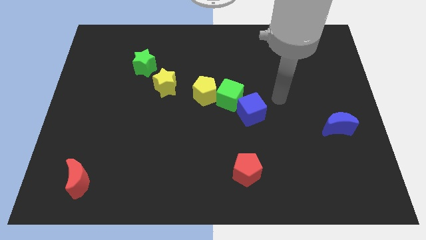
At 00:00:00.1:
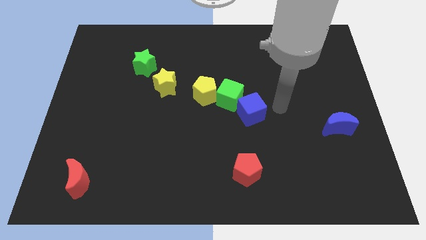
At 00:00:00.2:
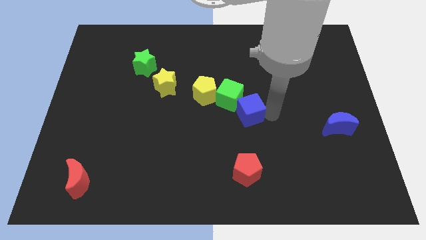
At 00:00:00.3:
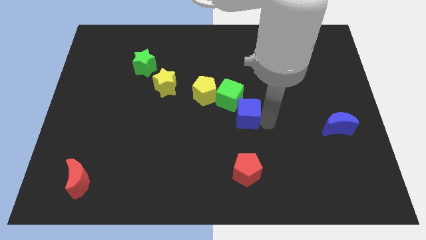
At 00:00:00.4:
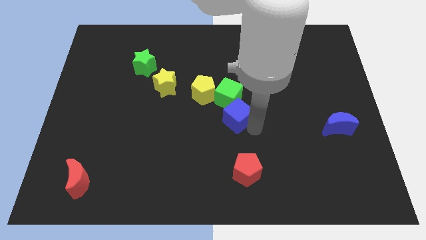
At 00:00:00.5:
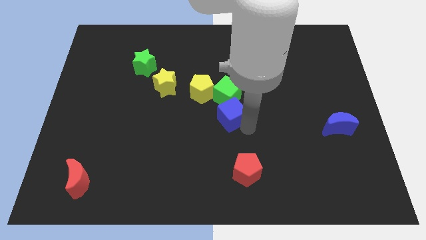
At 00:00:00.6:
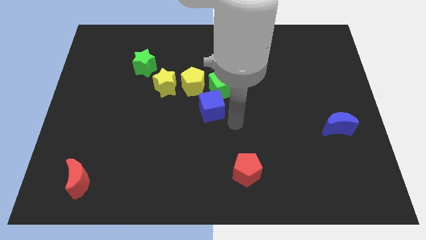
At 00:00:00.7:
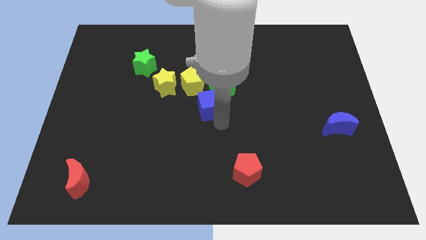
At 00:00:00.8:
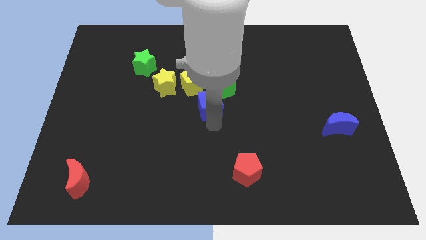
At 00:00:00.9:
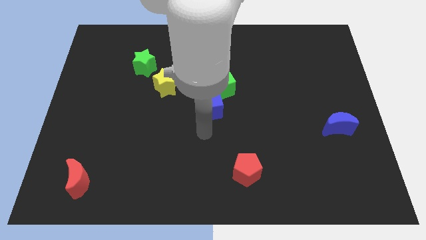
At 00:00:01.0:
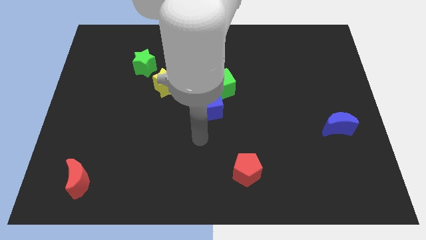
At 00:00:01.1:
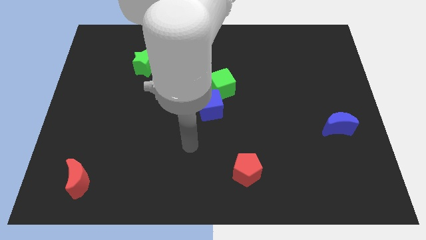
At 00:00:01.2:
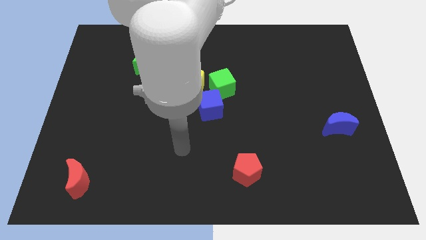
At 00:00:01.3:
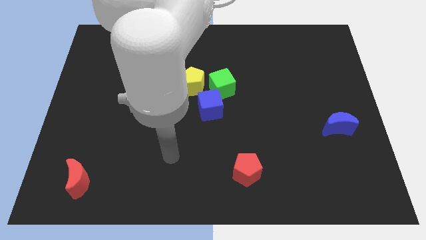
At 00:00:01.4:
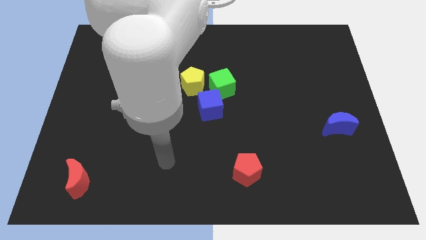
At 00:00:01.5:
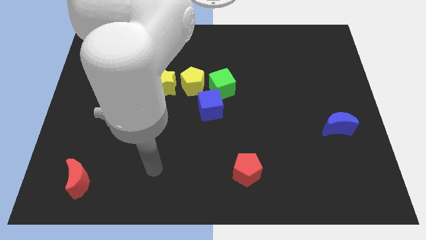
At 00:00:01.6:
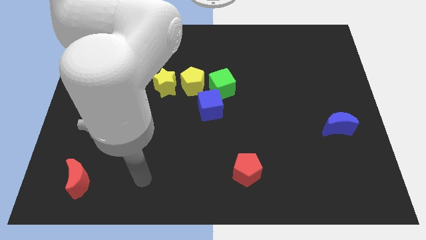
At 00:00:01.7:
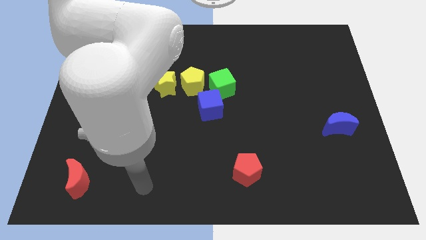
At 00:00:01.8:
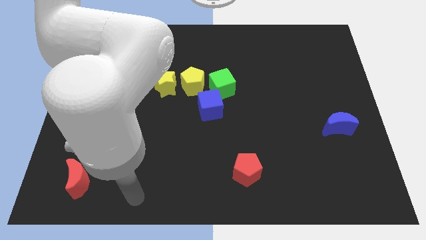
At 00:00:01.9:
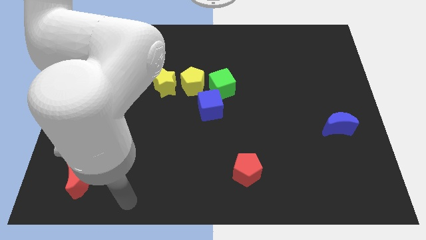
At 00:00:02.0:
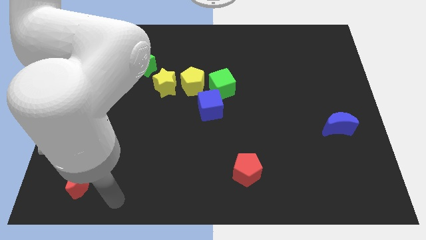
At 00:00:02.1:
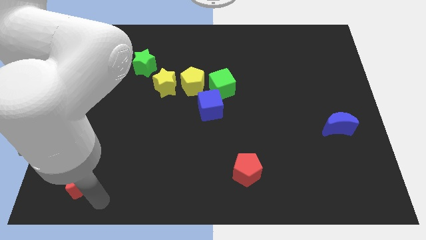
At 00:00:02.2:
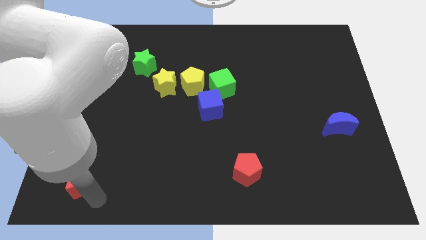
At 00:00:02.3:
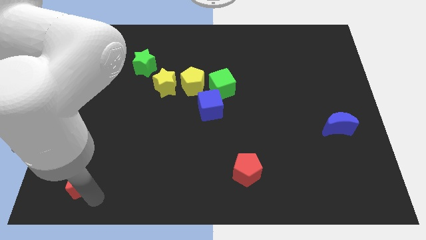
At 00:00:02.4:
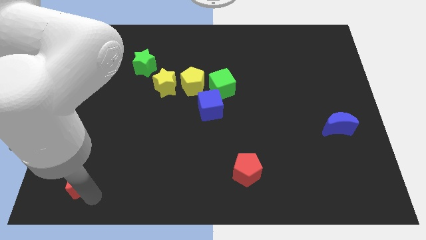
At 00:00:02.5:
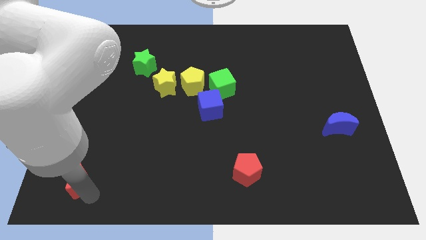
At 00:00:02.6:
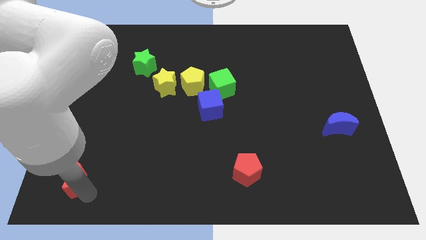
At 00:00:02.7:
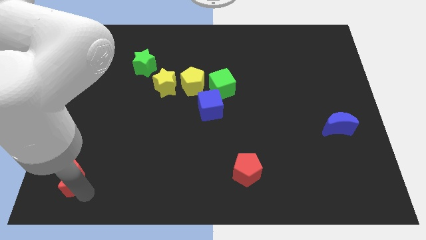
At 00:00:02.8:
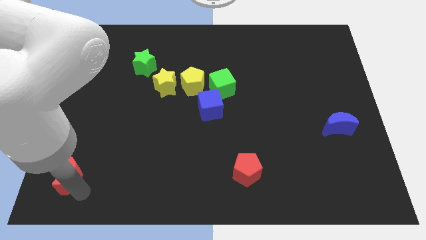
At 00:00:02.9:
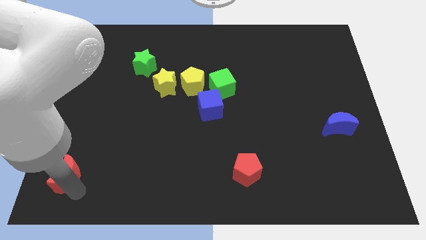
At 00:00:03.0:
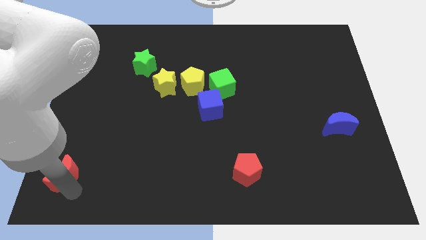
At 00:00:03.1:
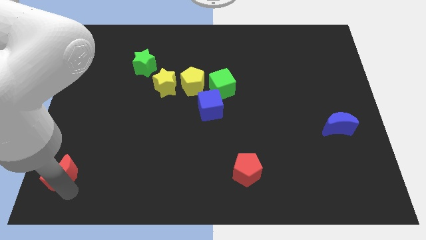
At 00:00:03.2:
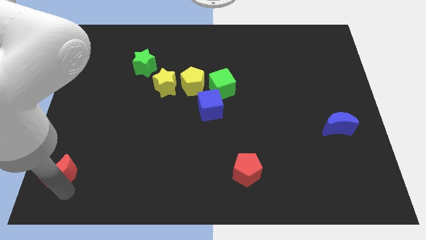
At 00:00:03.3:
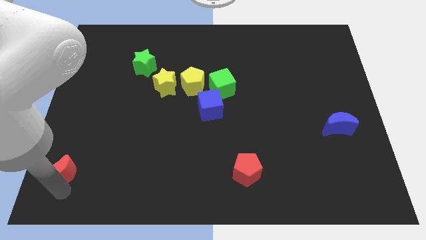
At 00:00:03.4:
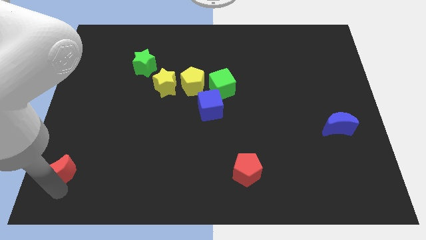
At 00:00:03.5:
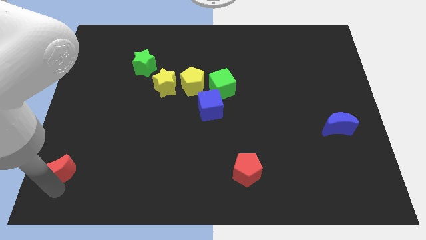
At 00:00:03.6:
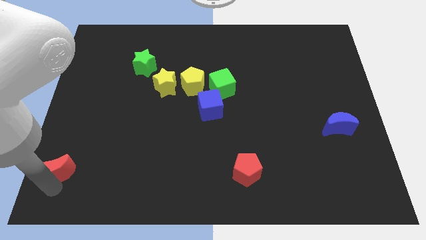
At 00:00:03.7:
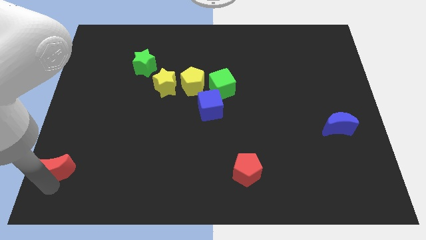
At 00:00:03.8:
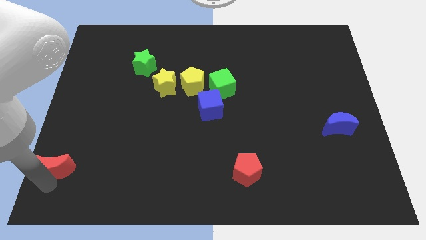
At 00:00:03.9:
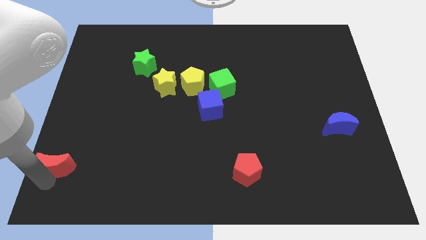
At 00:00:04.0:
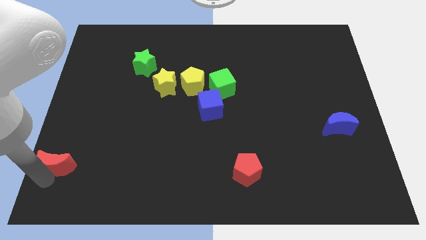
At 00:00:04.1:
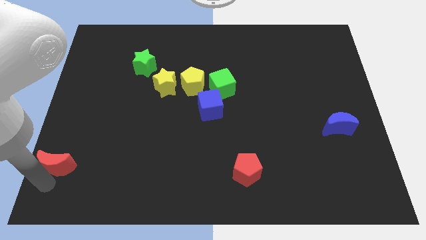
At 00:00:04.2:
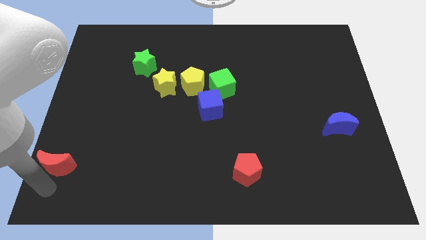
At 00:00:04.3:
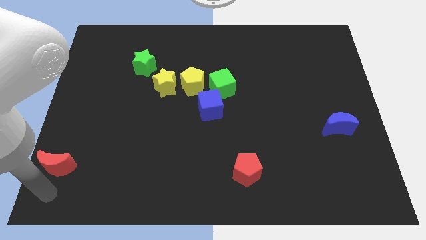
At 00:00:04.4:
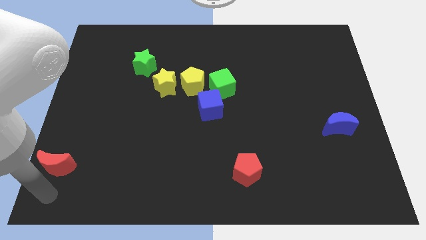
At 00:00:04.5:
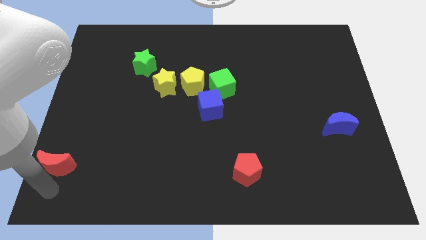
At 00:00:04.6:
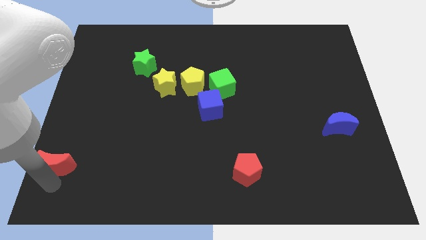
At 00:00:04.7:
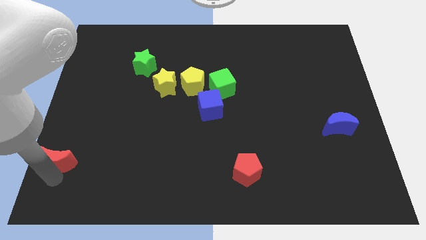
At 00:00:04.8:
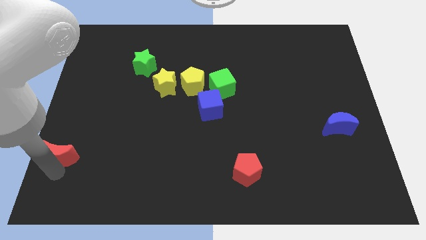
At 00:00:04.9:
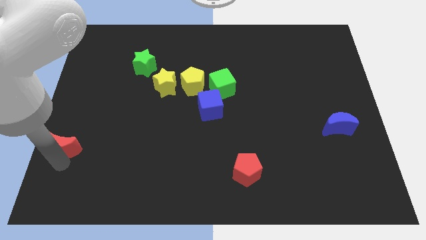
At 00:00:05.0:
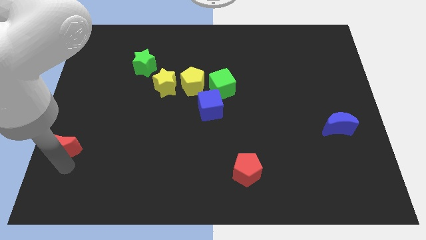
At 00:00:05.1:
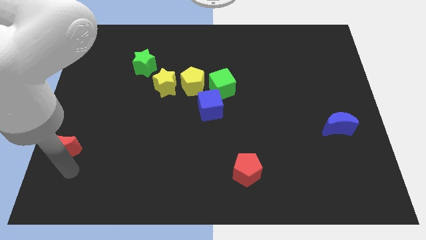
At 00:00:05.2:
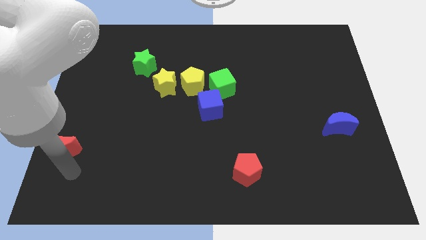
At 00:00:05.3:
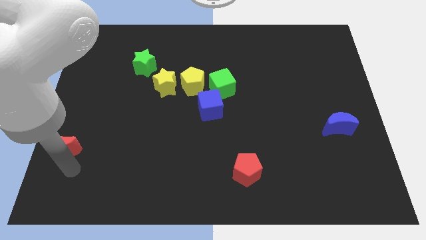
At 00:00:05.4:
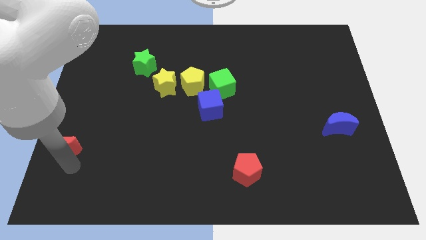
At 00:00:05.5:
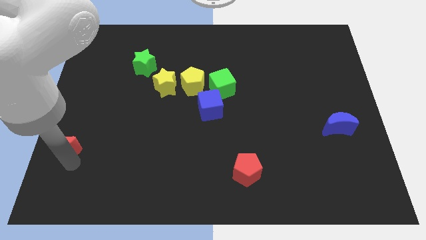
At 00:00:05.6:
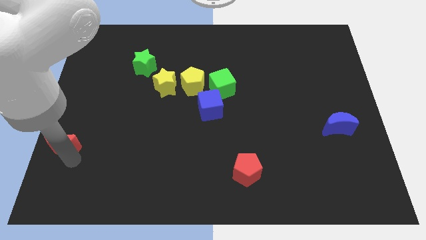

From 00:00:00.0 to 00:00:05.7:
move the red moon to the left side of the board

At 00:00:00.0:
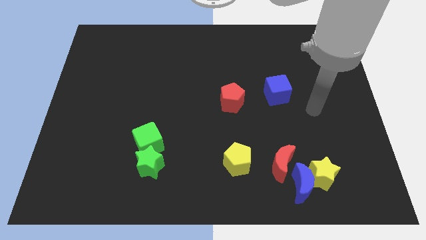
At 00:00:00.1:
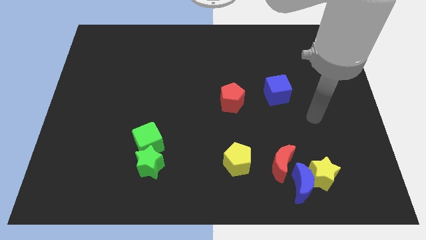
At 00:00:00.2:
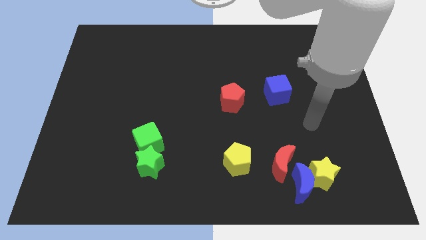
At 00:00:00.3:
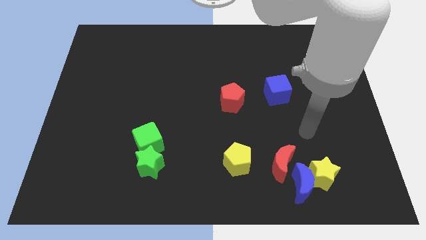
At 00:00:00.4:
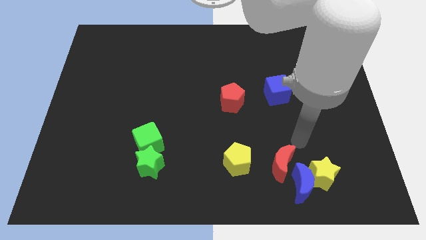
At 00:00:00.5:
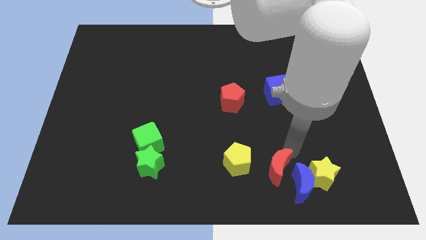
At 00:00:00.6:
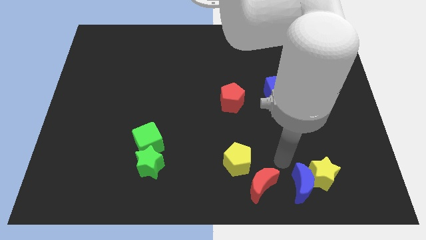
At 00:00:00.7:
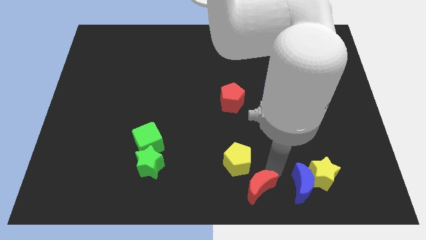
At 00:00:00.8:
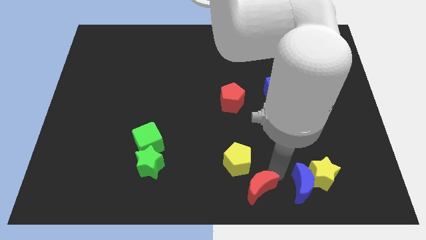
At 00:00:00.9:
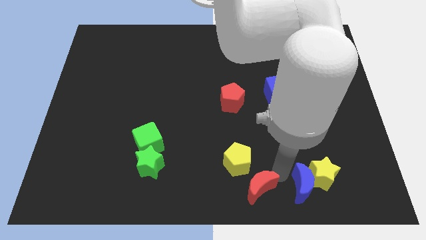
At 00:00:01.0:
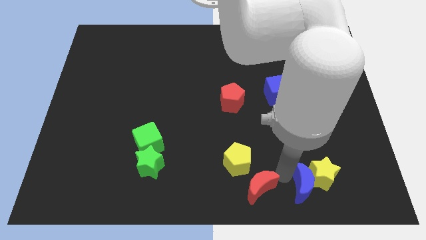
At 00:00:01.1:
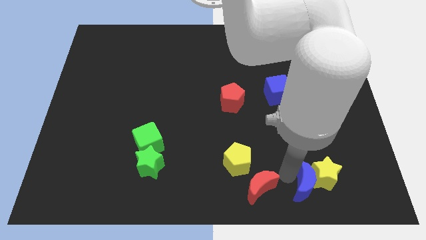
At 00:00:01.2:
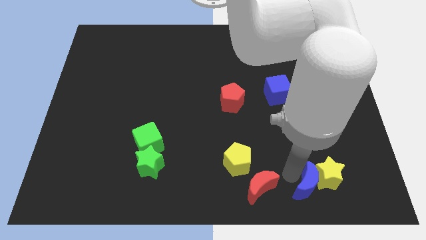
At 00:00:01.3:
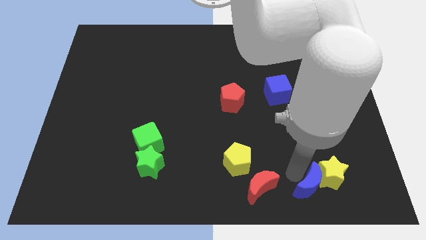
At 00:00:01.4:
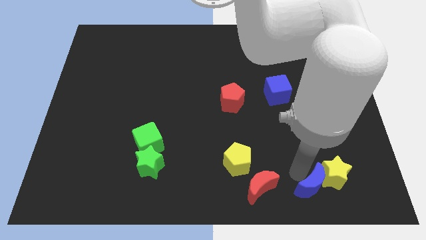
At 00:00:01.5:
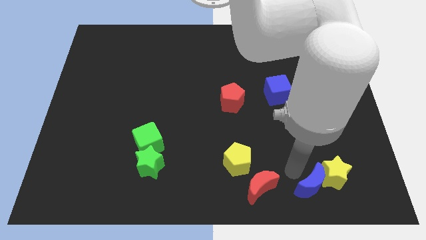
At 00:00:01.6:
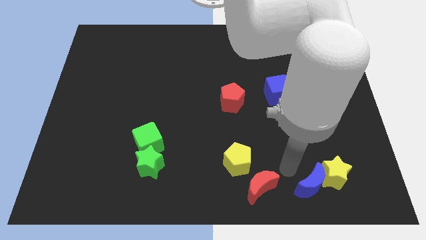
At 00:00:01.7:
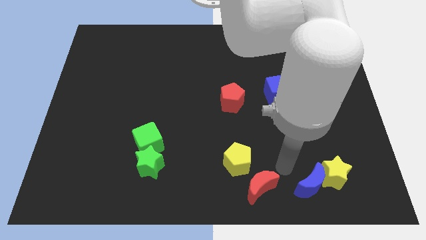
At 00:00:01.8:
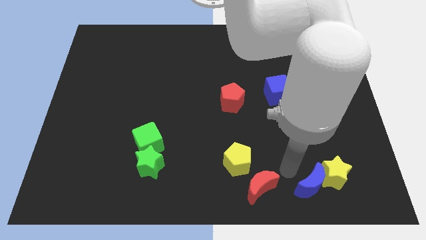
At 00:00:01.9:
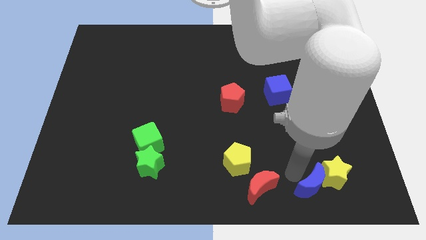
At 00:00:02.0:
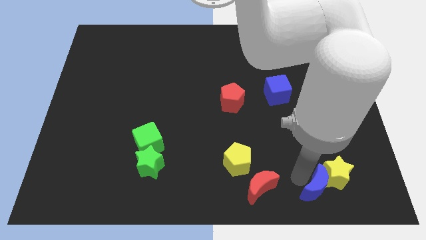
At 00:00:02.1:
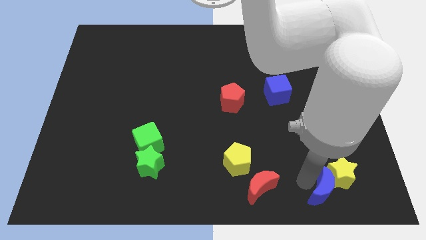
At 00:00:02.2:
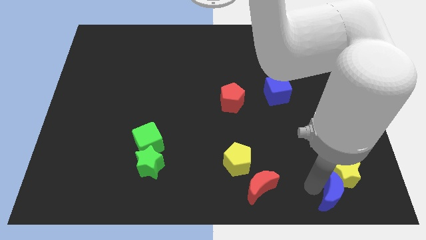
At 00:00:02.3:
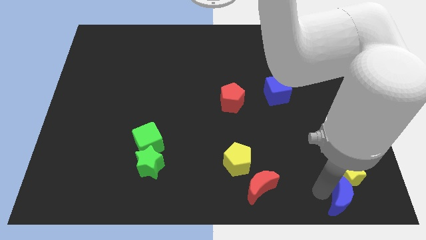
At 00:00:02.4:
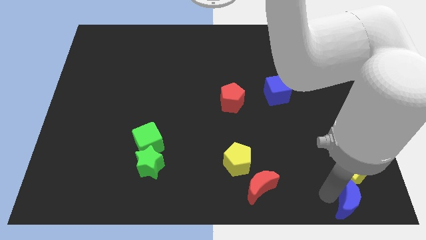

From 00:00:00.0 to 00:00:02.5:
move the blue moon to the bottom right corner
